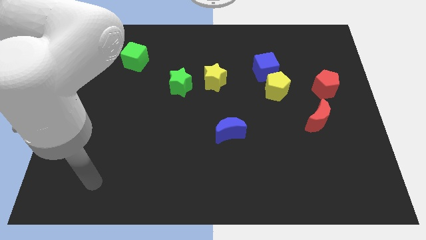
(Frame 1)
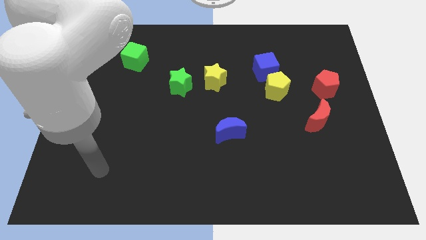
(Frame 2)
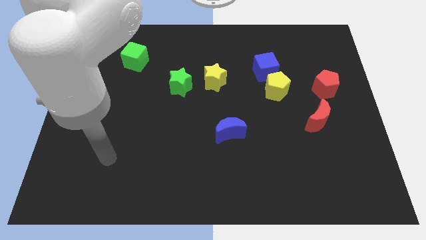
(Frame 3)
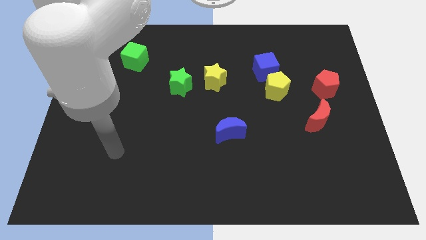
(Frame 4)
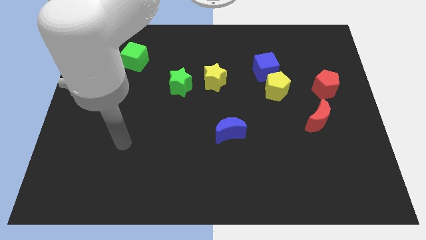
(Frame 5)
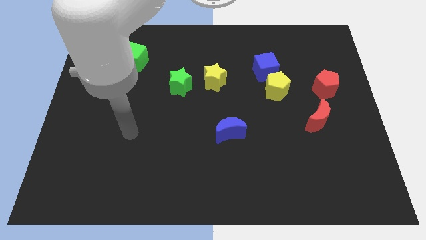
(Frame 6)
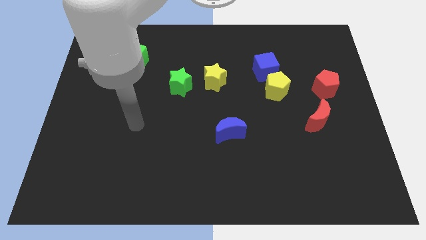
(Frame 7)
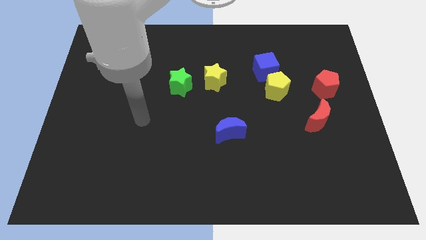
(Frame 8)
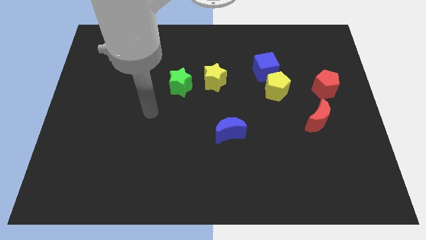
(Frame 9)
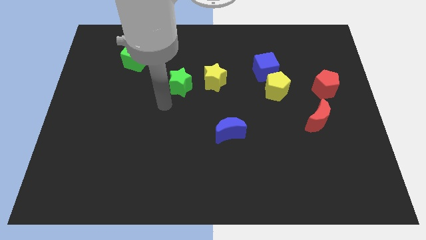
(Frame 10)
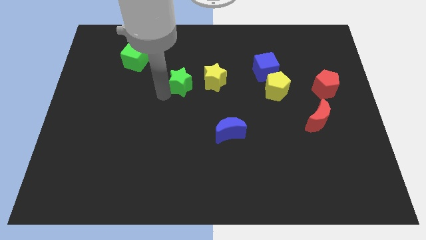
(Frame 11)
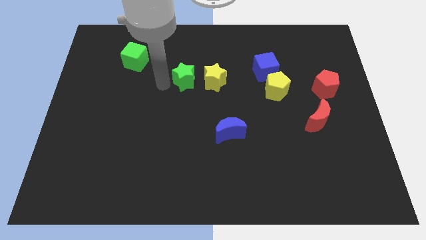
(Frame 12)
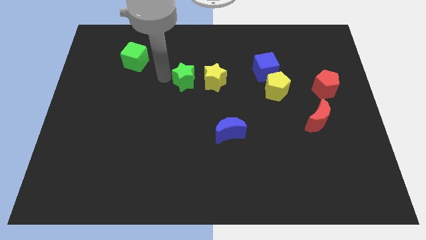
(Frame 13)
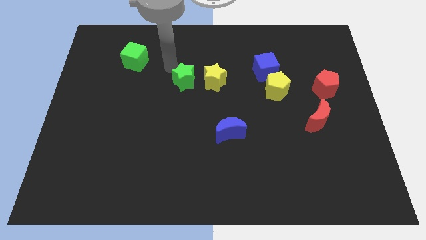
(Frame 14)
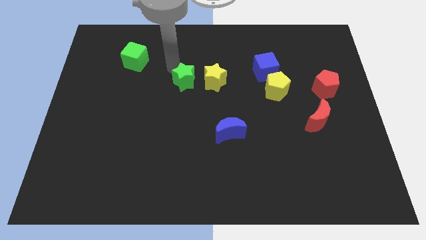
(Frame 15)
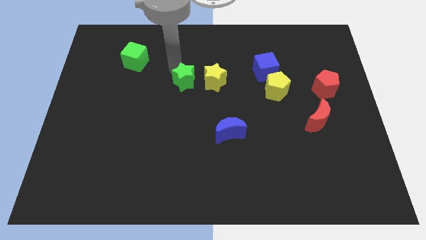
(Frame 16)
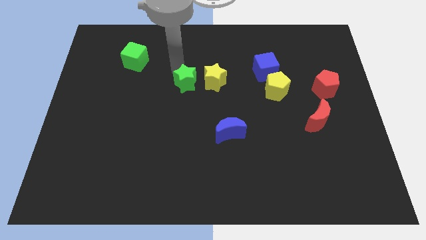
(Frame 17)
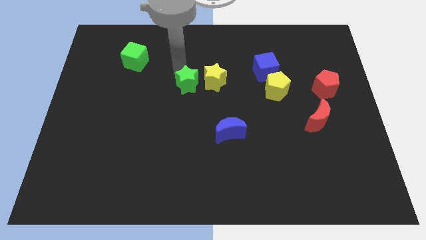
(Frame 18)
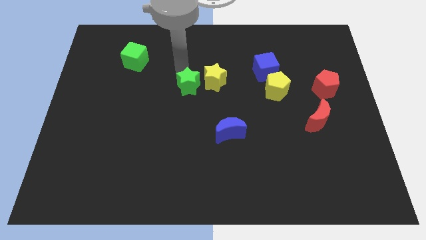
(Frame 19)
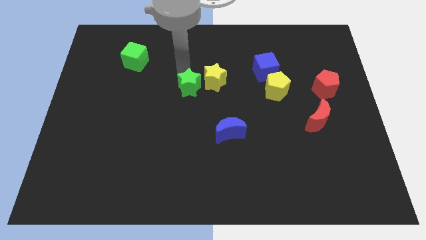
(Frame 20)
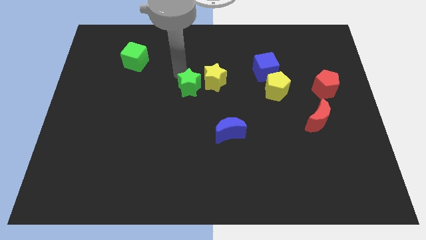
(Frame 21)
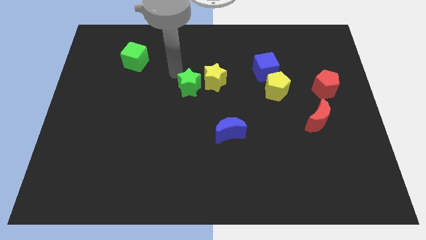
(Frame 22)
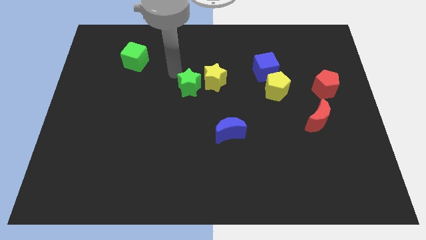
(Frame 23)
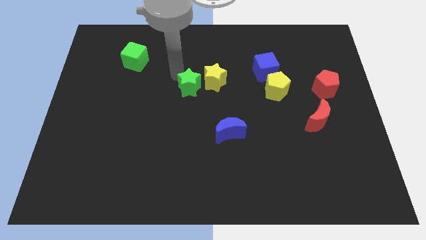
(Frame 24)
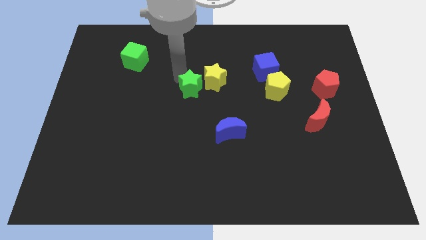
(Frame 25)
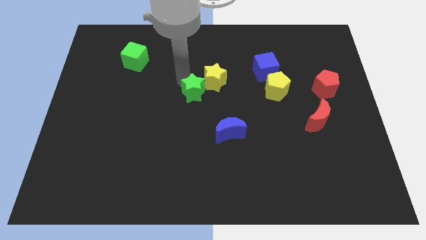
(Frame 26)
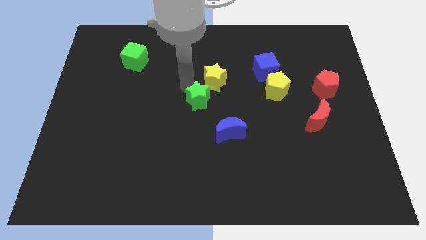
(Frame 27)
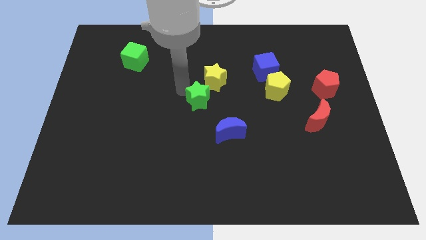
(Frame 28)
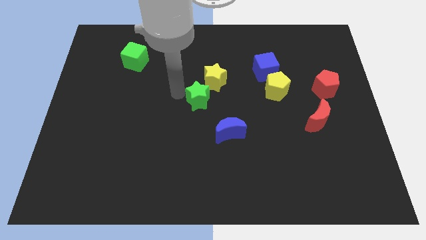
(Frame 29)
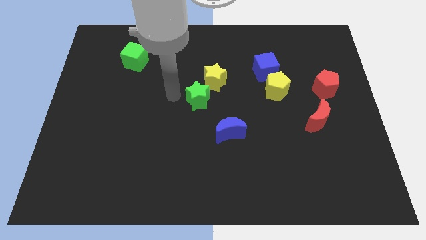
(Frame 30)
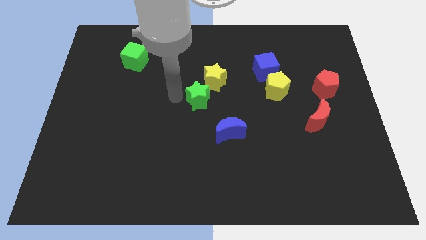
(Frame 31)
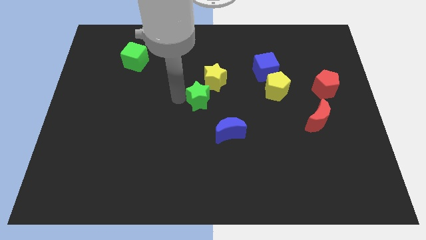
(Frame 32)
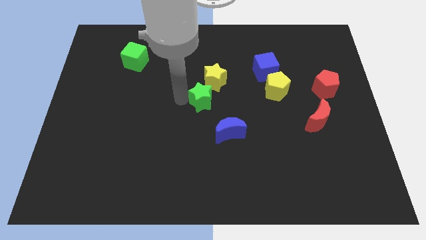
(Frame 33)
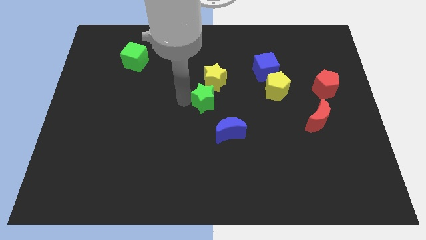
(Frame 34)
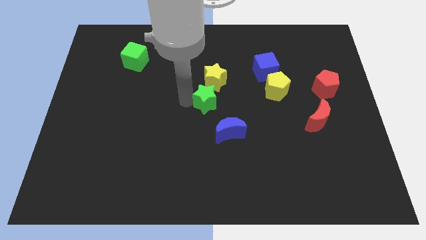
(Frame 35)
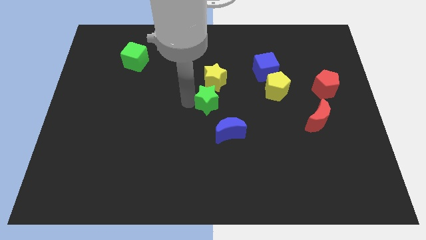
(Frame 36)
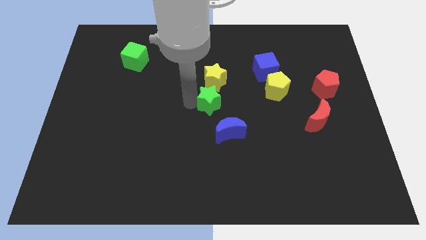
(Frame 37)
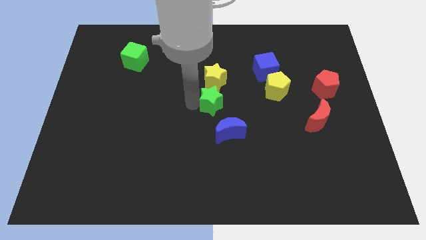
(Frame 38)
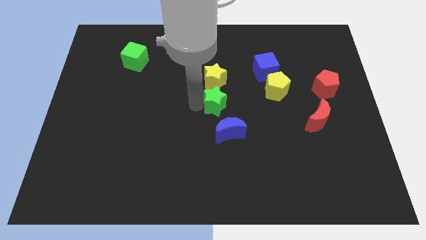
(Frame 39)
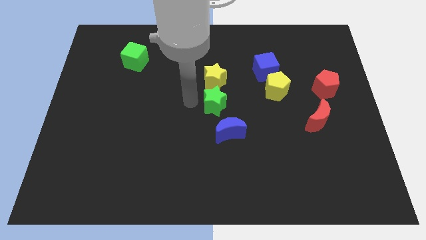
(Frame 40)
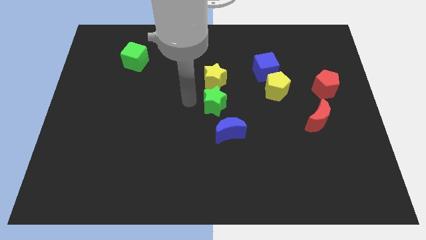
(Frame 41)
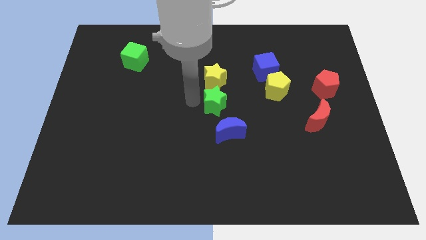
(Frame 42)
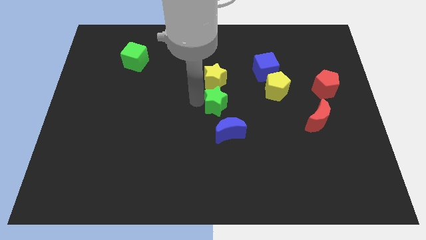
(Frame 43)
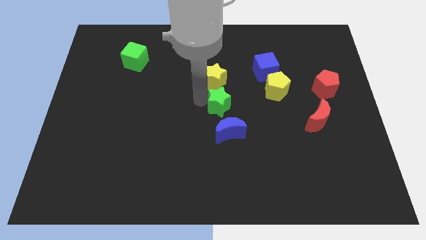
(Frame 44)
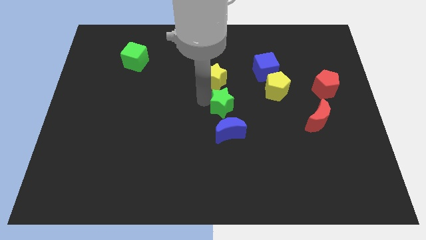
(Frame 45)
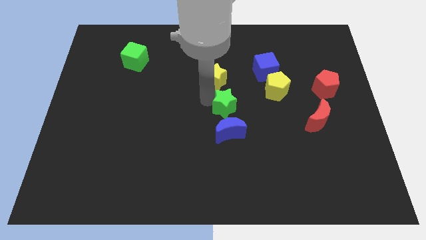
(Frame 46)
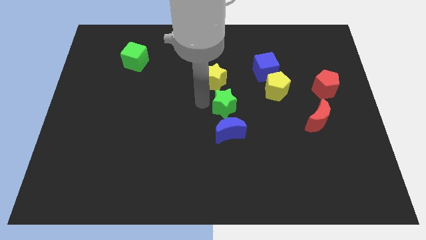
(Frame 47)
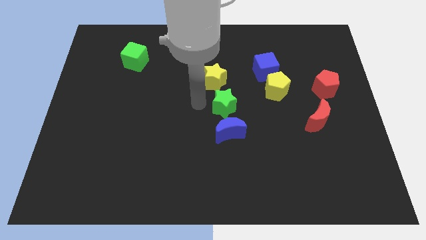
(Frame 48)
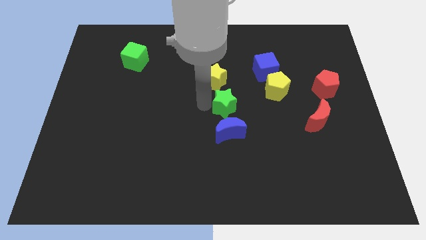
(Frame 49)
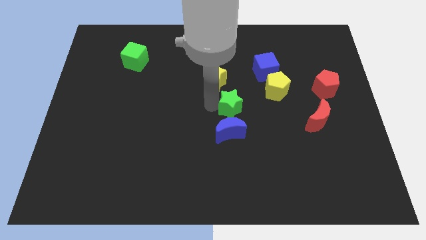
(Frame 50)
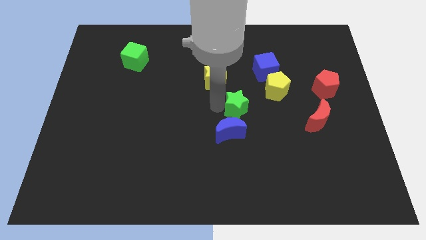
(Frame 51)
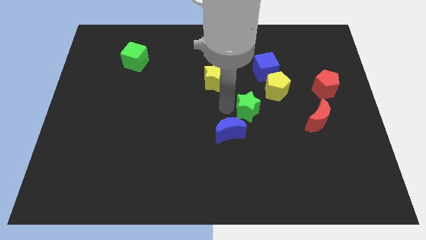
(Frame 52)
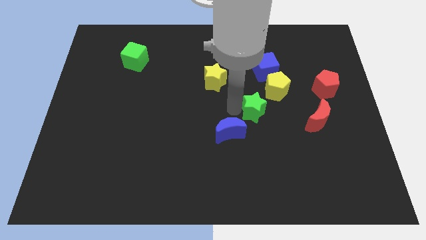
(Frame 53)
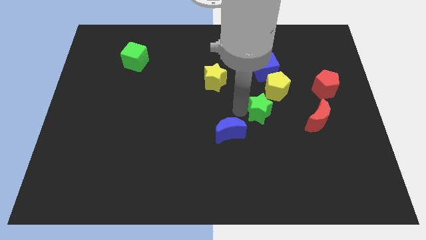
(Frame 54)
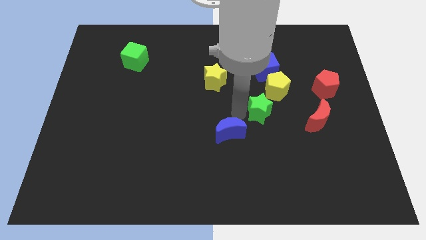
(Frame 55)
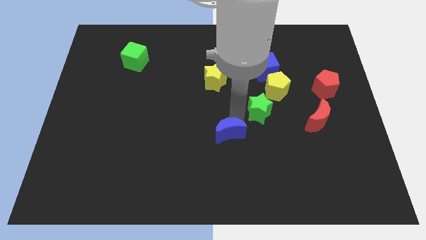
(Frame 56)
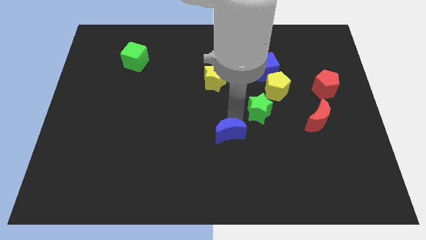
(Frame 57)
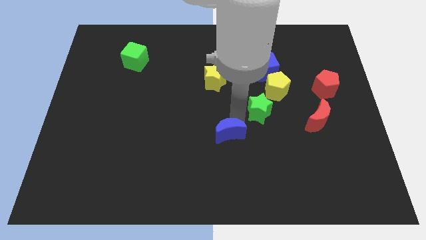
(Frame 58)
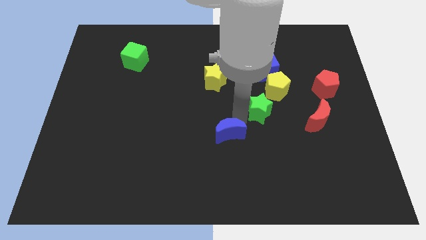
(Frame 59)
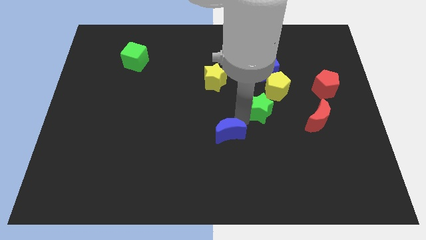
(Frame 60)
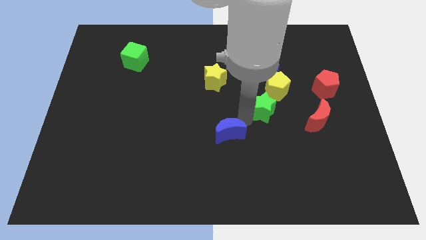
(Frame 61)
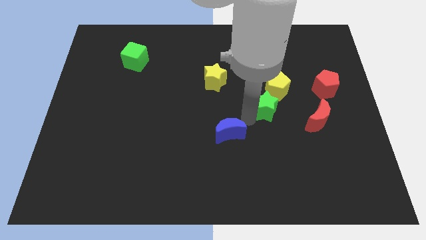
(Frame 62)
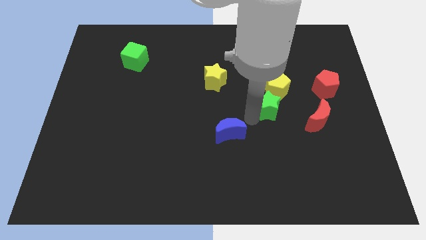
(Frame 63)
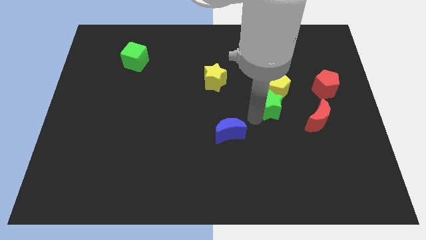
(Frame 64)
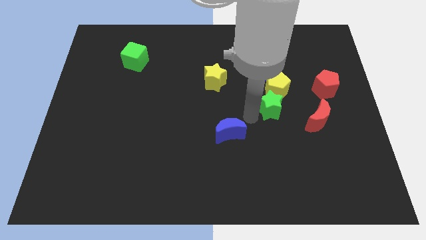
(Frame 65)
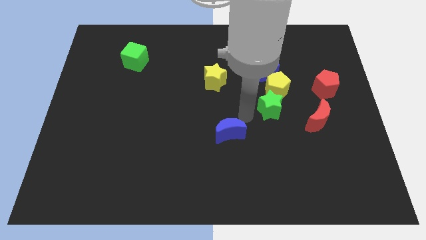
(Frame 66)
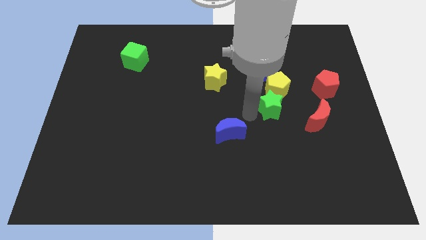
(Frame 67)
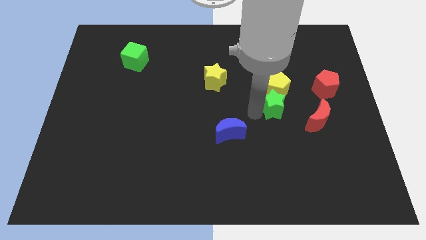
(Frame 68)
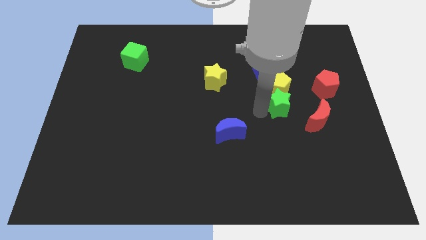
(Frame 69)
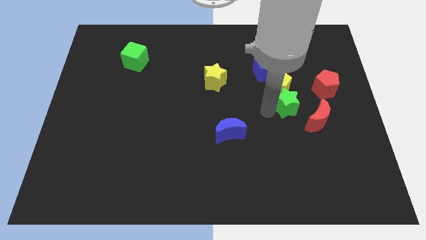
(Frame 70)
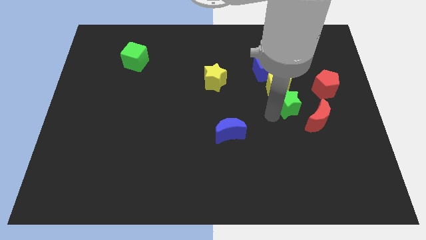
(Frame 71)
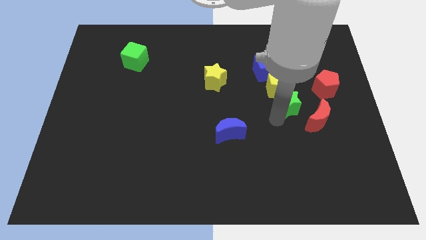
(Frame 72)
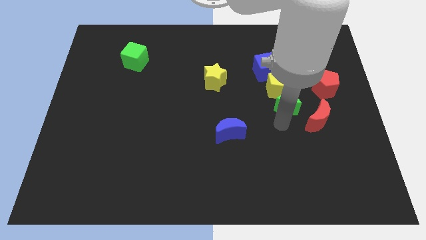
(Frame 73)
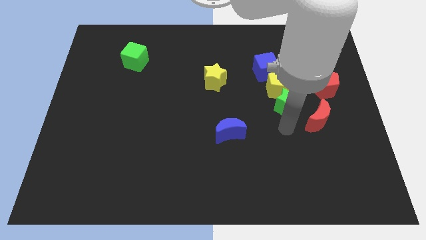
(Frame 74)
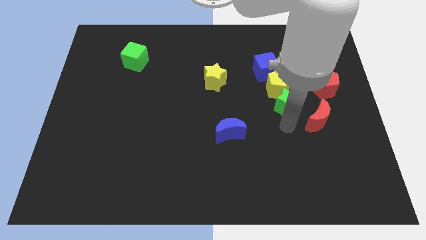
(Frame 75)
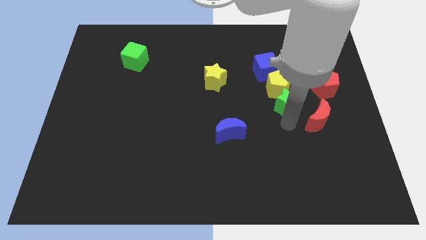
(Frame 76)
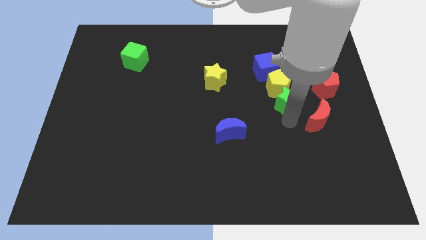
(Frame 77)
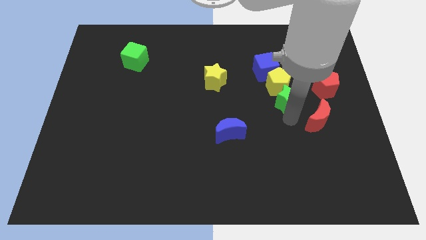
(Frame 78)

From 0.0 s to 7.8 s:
put the green star to the bottom right side of the blue cube
